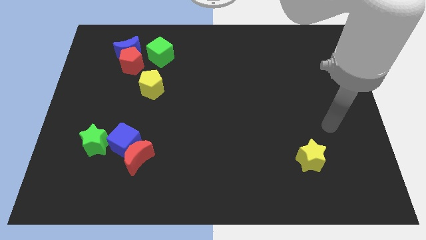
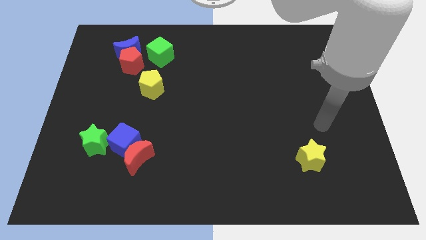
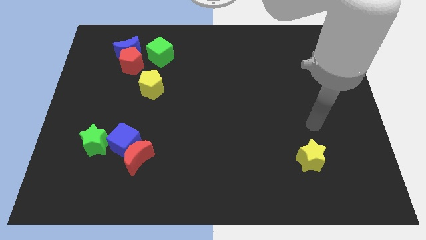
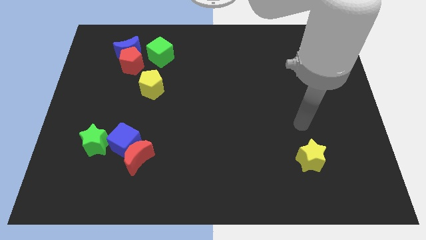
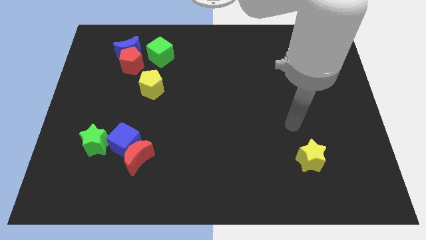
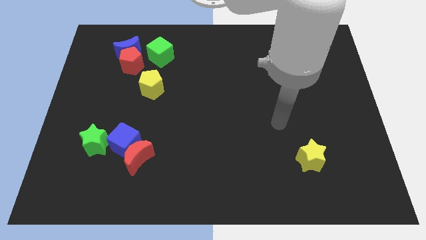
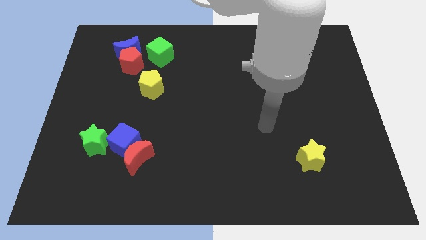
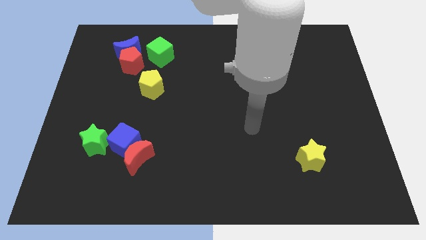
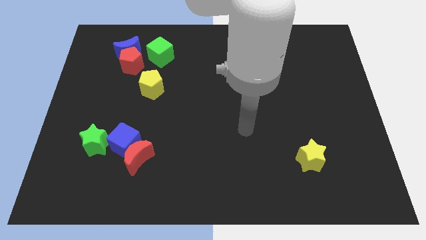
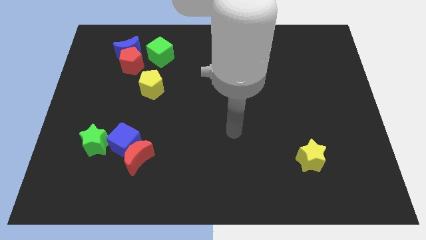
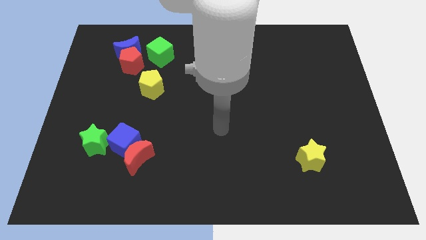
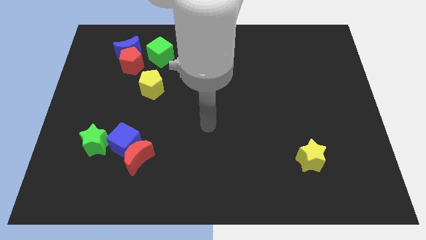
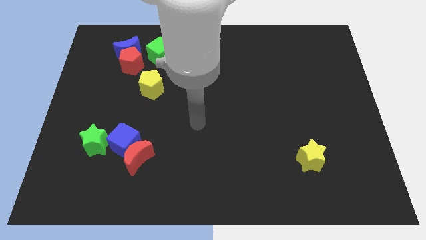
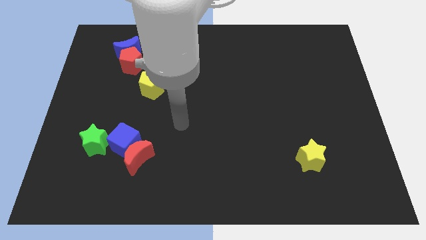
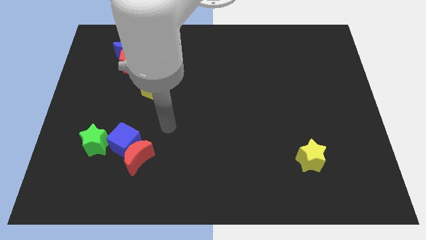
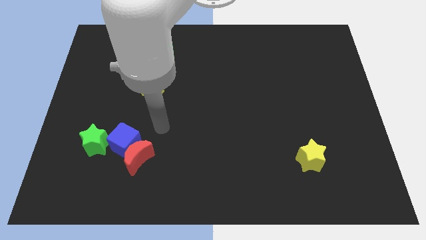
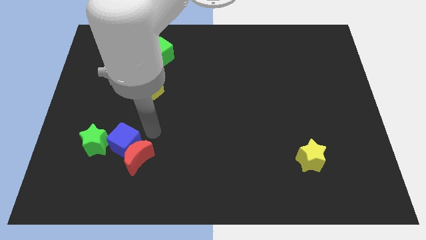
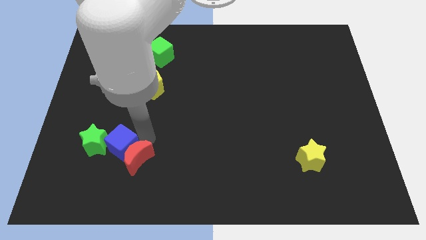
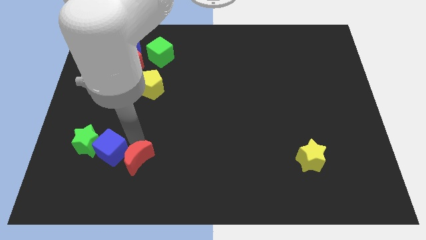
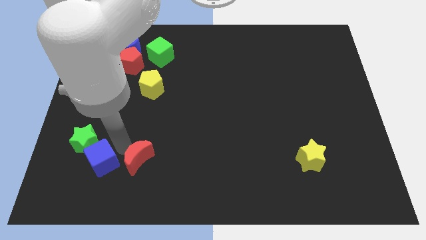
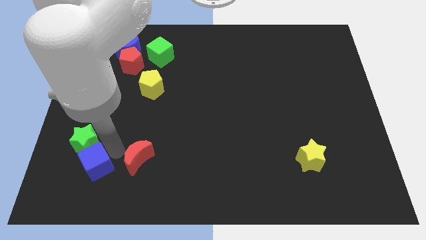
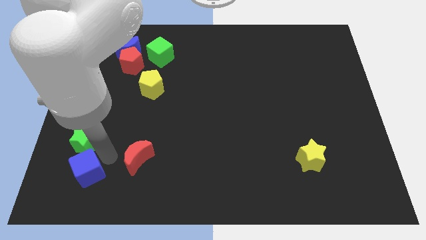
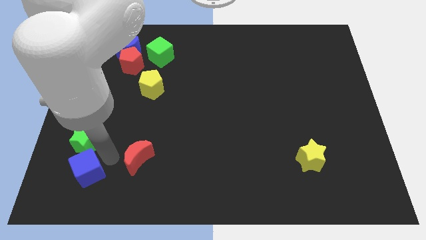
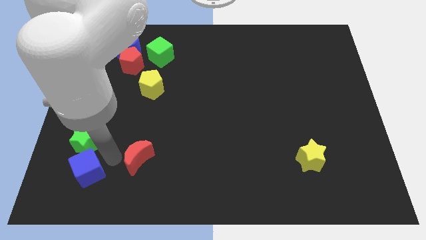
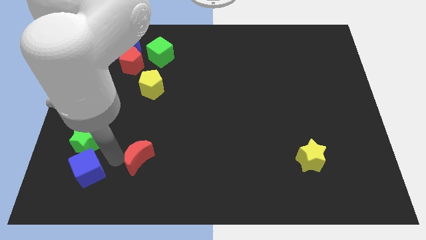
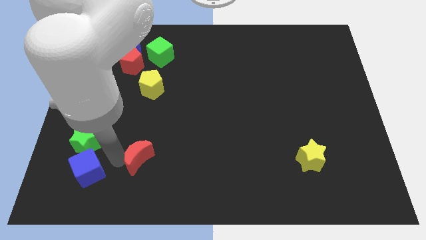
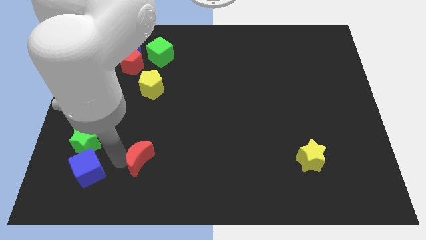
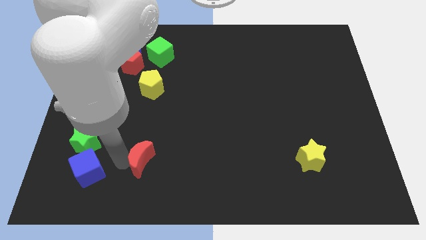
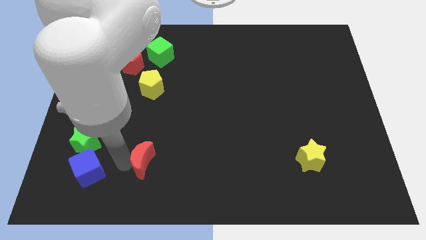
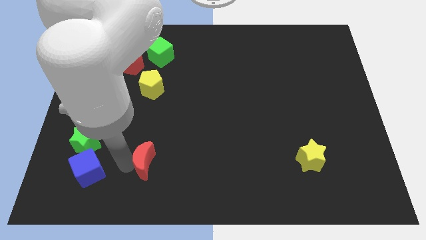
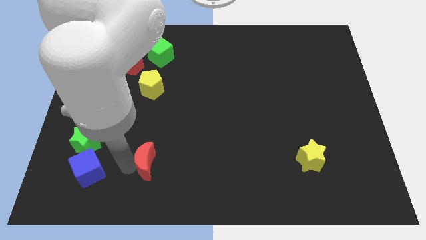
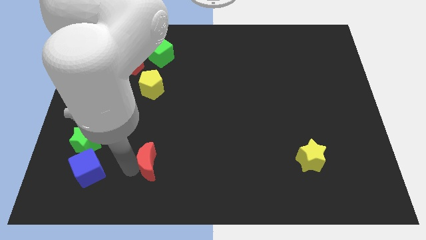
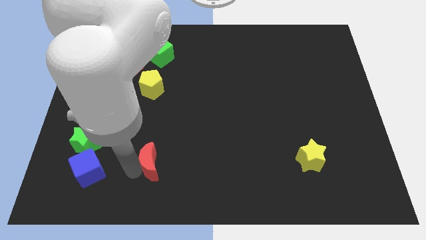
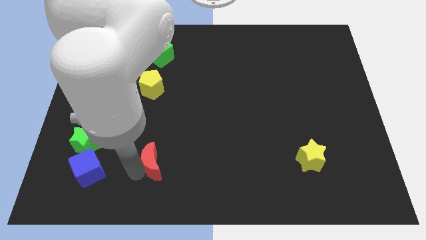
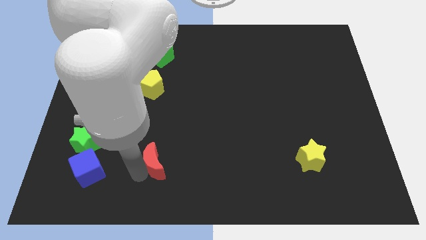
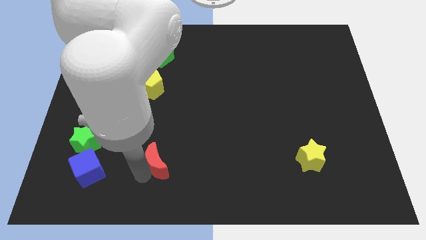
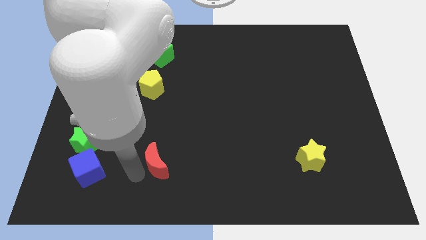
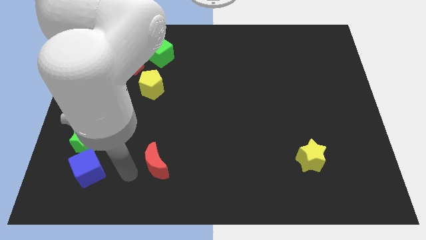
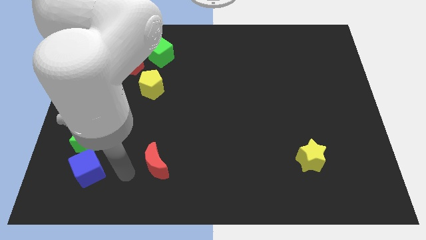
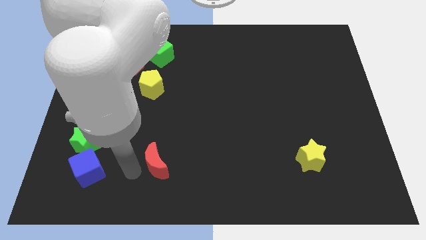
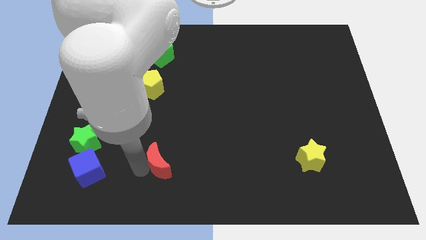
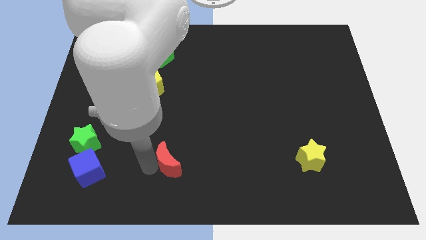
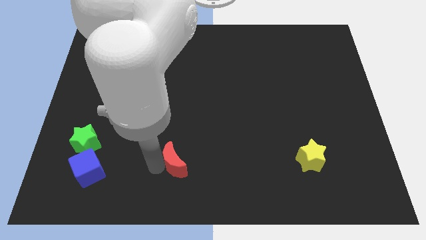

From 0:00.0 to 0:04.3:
push the red moon right a little

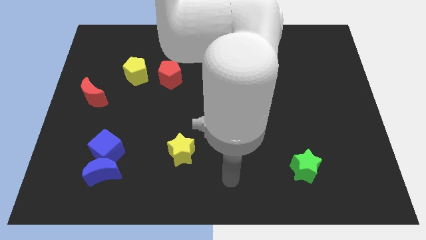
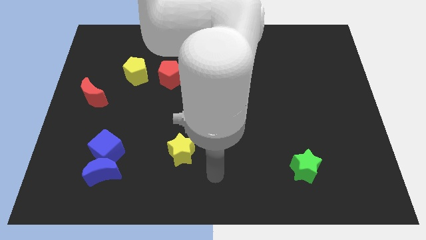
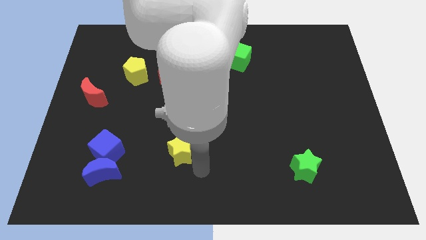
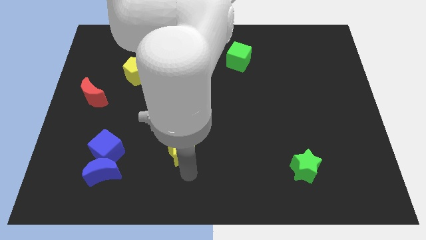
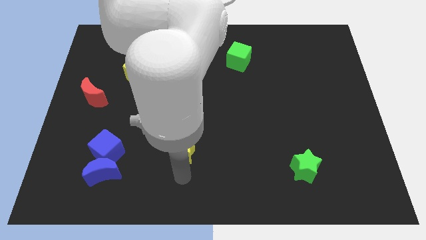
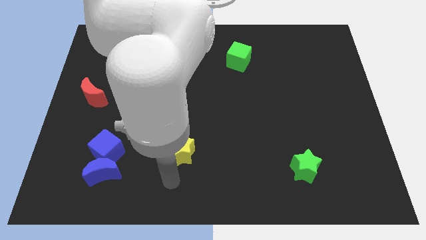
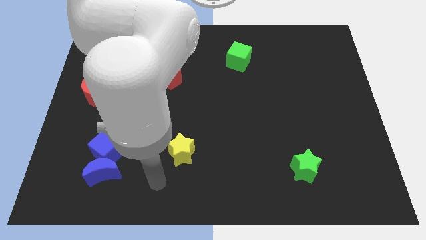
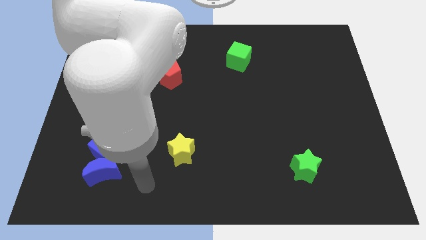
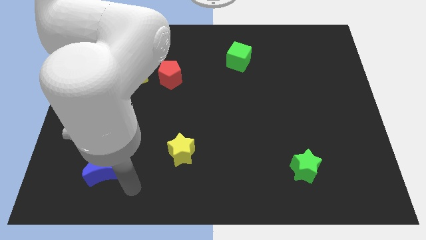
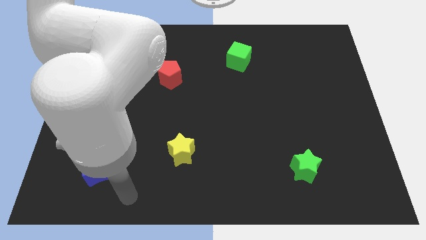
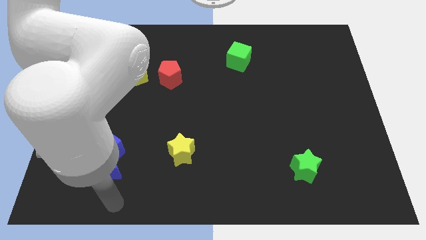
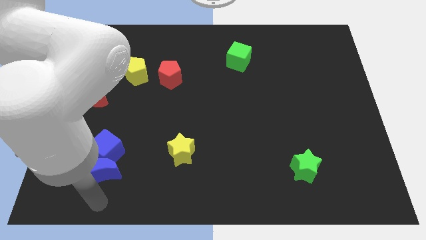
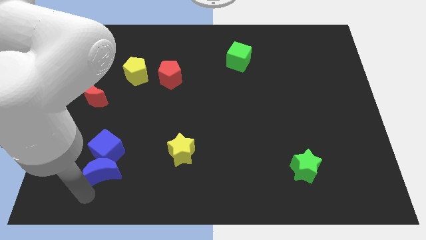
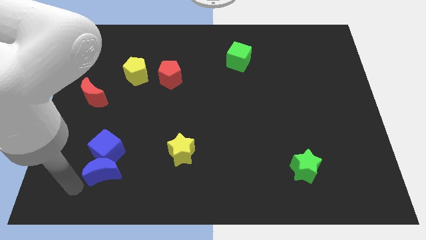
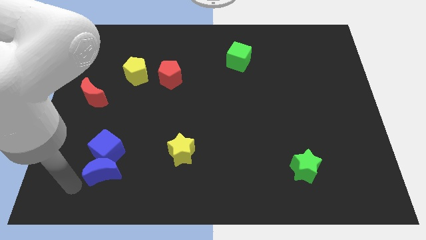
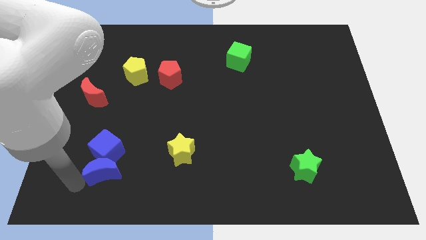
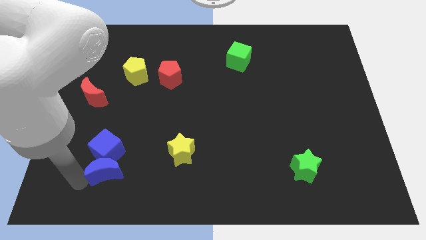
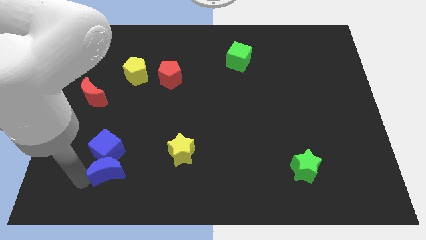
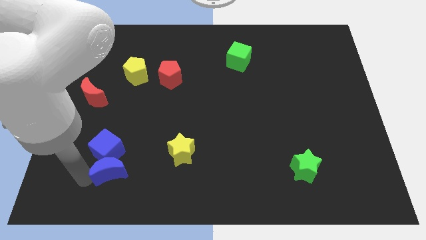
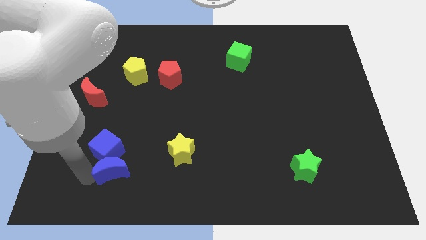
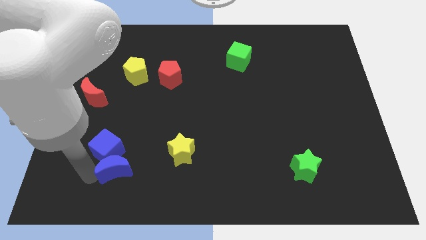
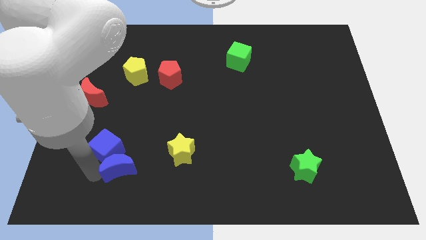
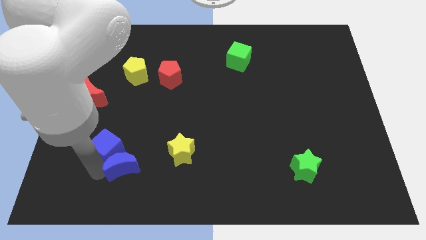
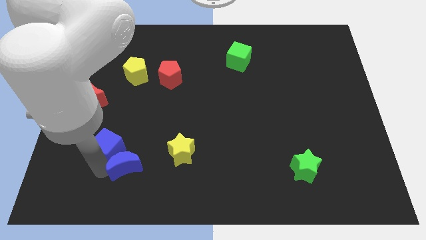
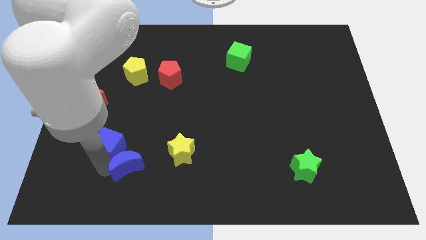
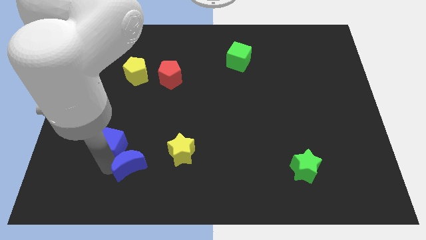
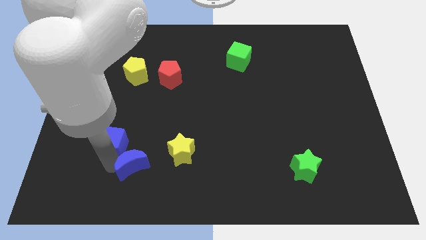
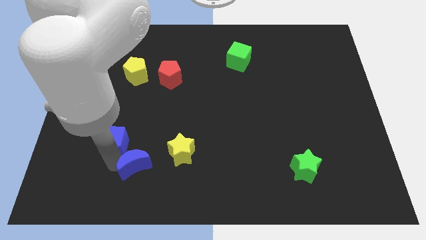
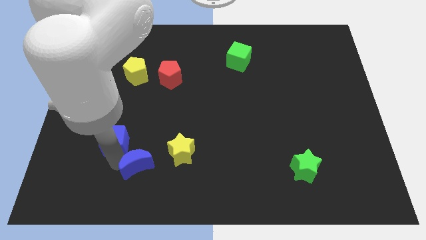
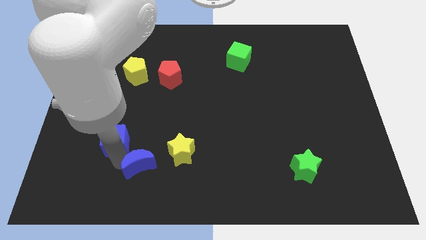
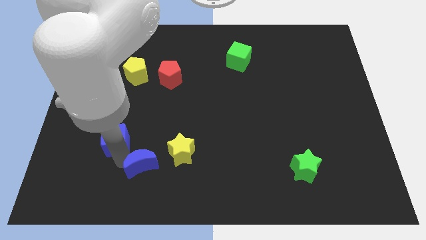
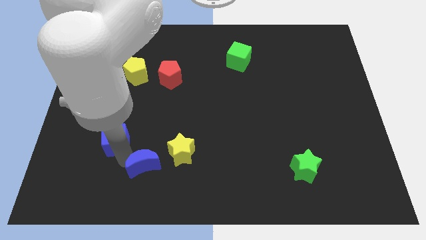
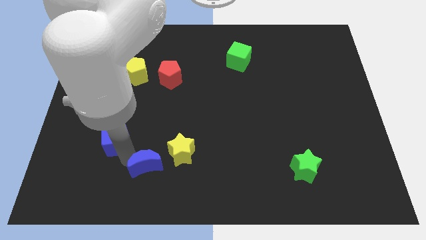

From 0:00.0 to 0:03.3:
slightly move the blue moon up and then right

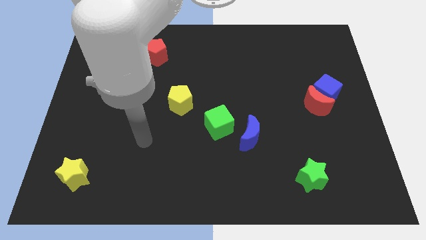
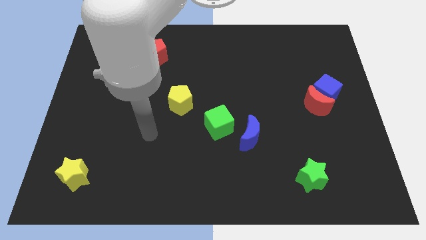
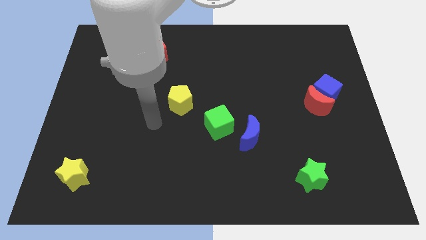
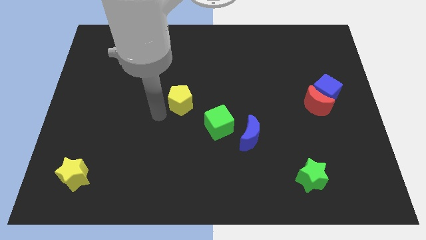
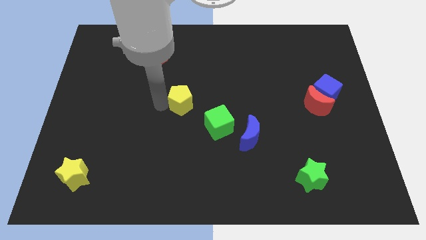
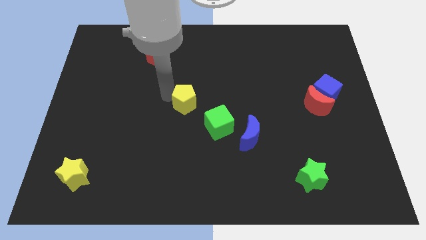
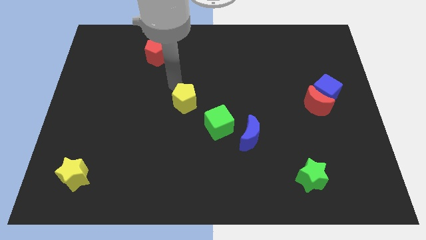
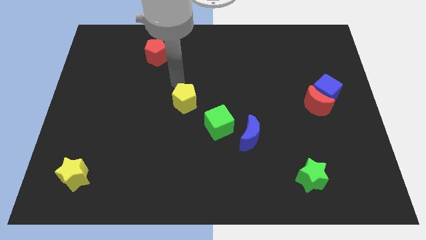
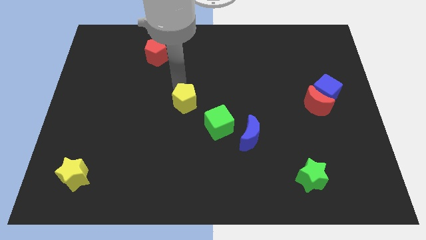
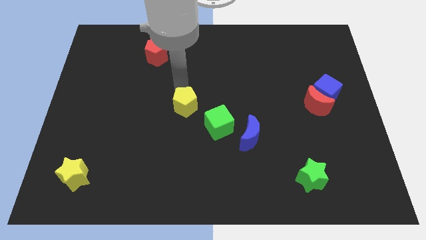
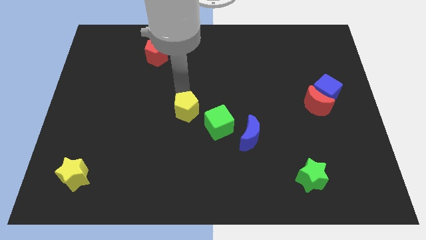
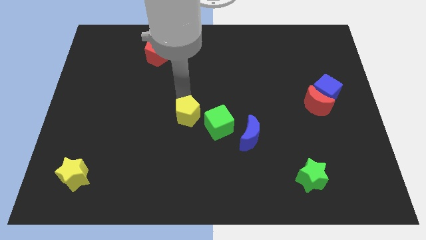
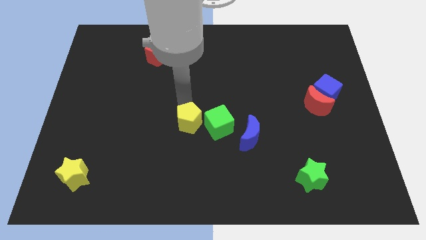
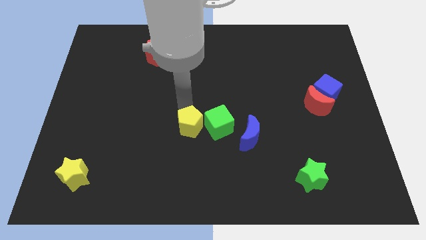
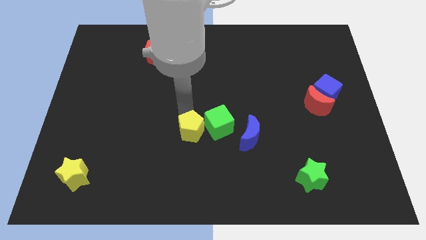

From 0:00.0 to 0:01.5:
slightly slide the yellow pentagon diagonally down and to the right
